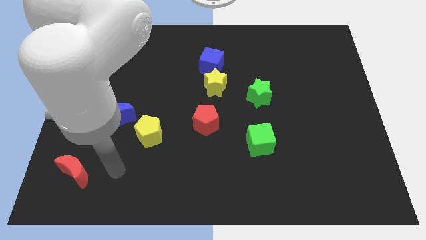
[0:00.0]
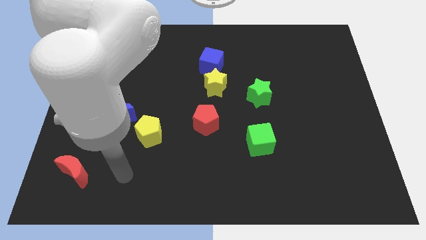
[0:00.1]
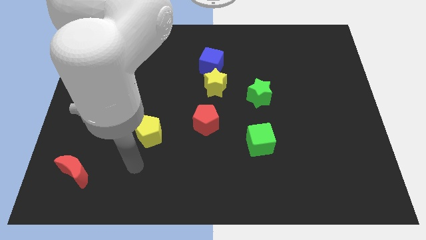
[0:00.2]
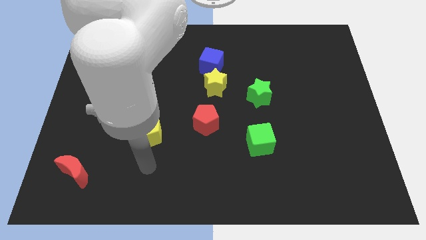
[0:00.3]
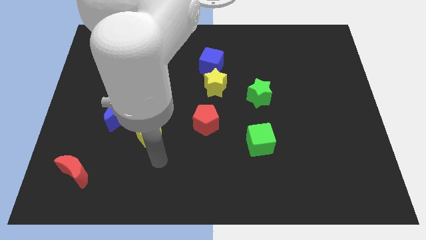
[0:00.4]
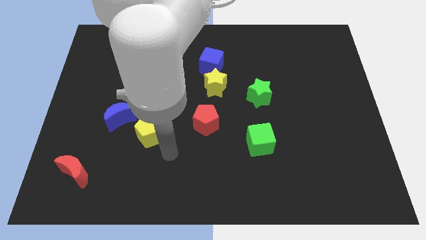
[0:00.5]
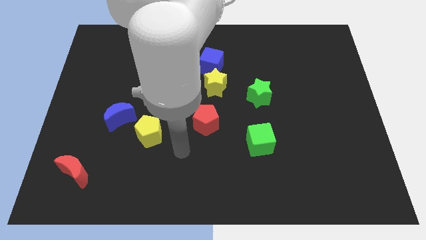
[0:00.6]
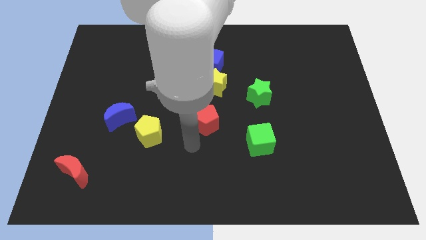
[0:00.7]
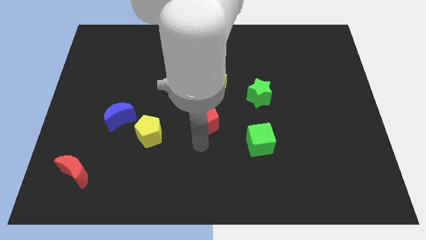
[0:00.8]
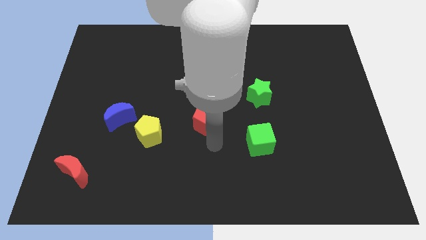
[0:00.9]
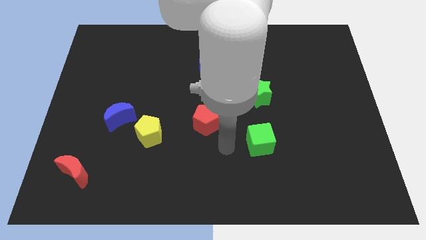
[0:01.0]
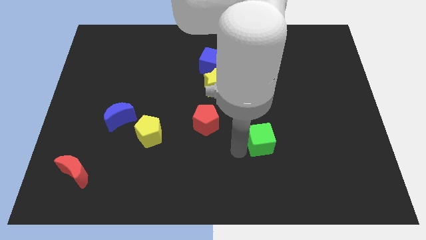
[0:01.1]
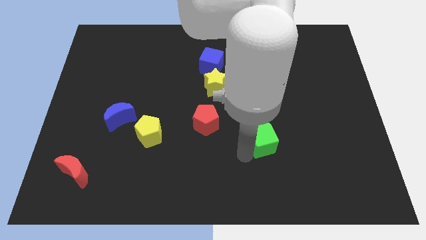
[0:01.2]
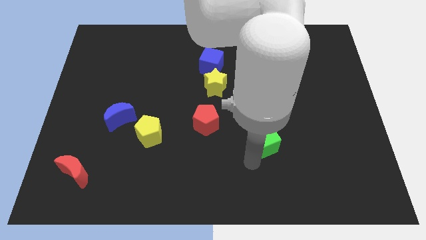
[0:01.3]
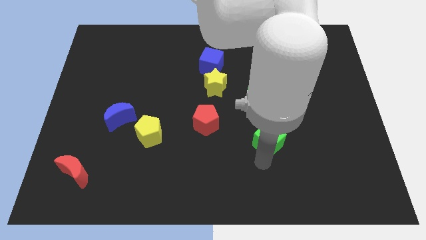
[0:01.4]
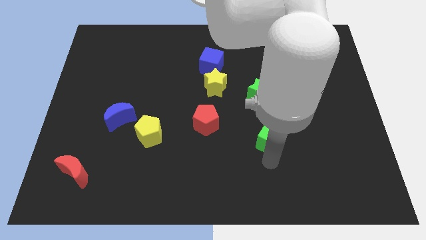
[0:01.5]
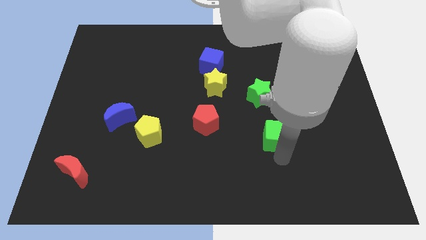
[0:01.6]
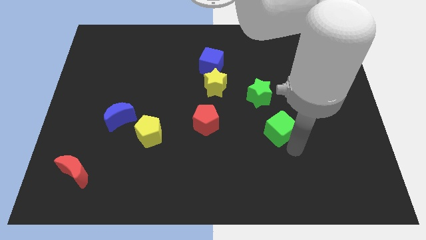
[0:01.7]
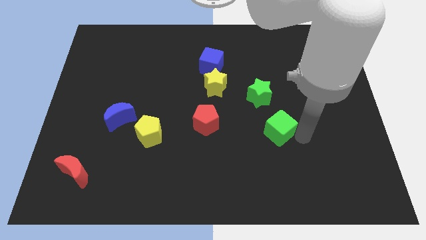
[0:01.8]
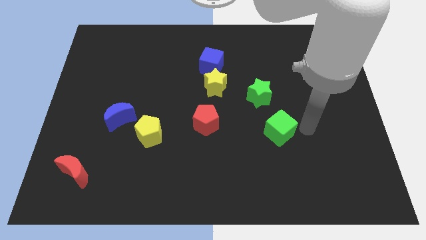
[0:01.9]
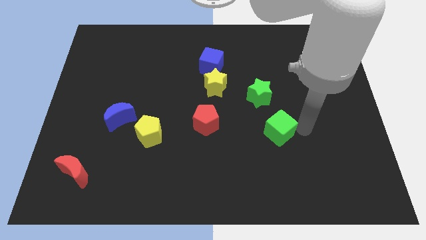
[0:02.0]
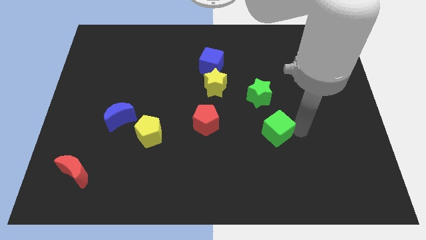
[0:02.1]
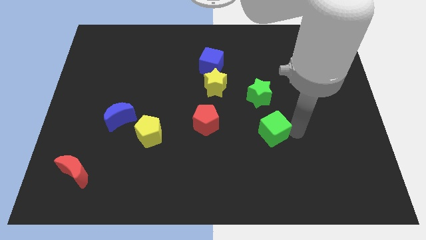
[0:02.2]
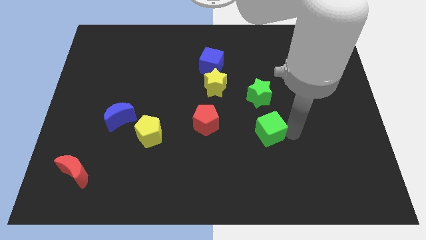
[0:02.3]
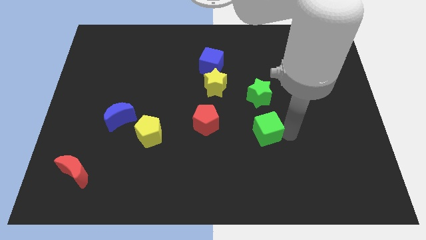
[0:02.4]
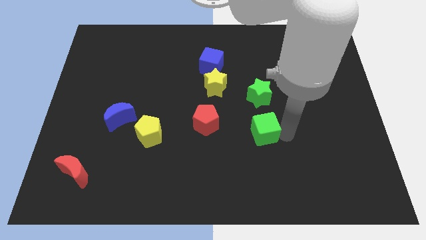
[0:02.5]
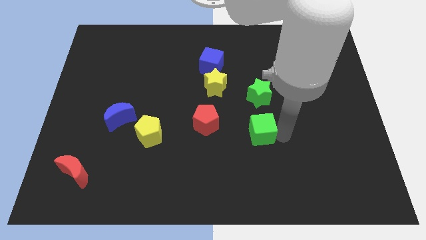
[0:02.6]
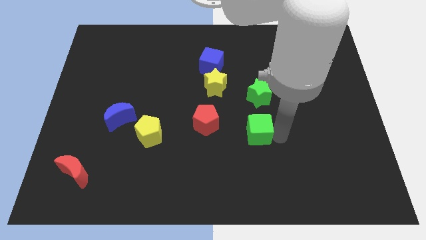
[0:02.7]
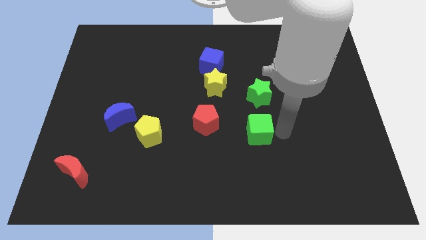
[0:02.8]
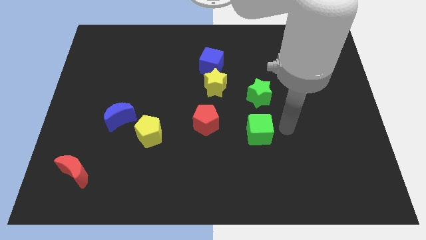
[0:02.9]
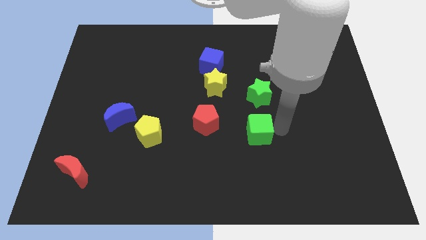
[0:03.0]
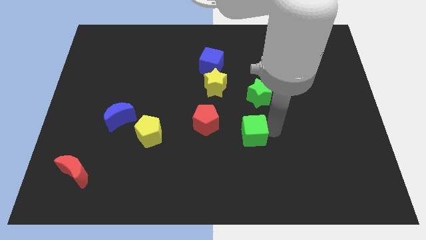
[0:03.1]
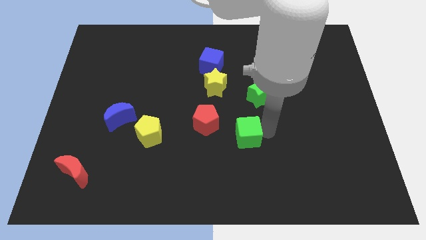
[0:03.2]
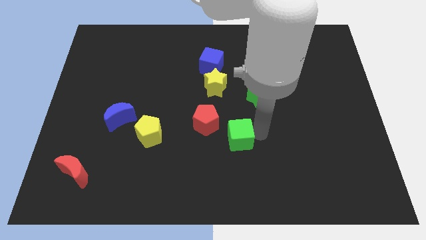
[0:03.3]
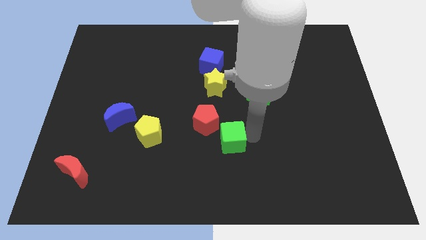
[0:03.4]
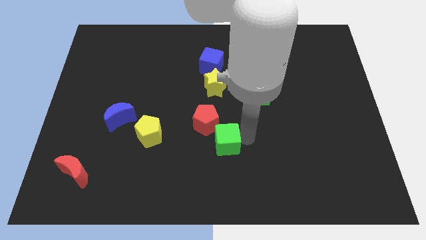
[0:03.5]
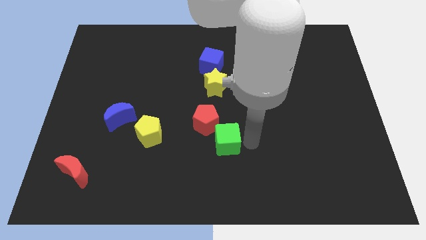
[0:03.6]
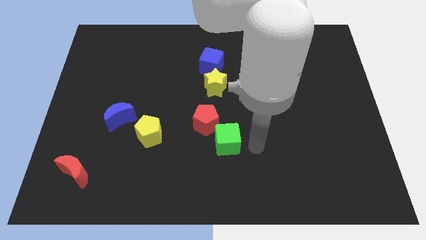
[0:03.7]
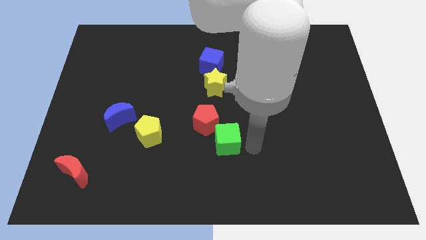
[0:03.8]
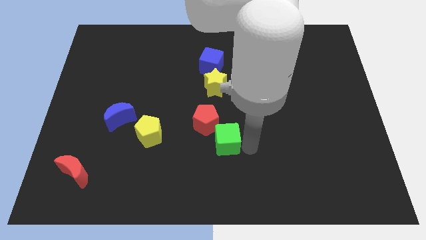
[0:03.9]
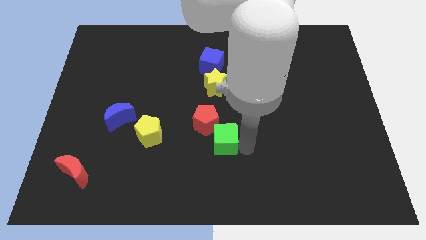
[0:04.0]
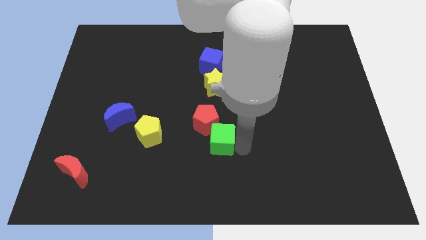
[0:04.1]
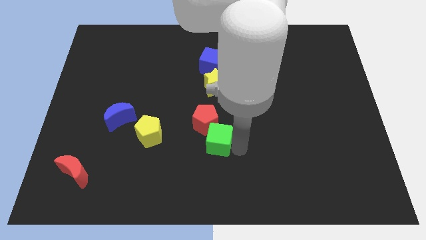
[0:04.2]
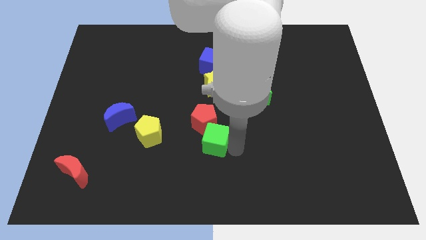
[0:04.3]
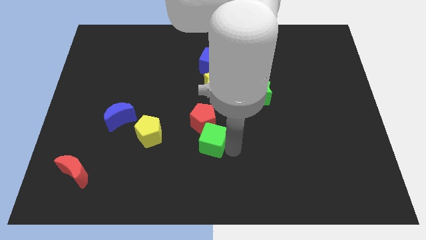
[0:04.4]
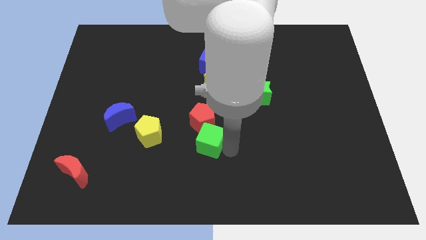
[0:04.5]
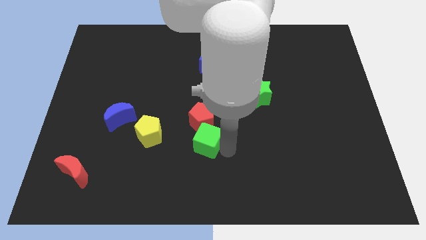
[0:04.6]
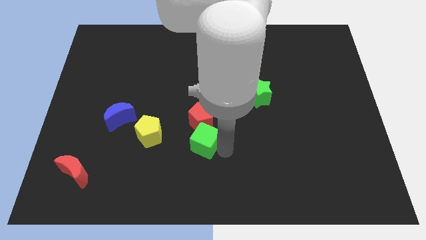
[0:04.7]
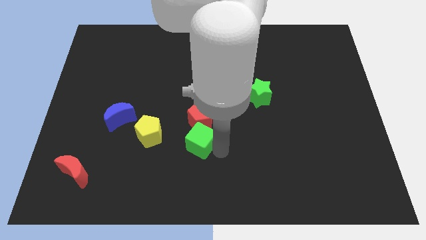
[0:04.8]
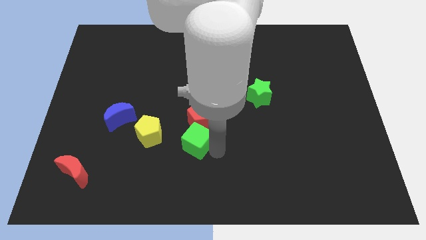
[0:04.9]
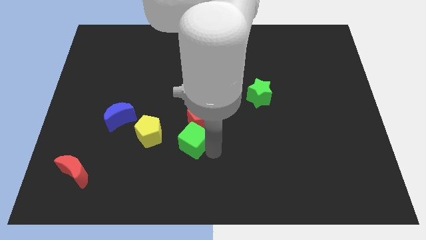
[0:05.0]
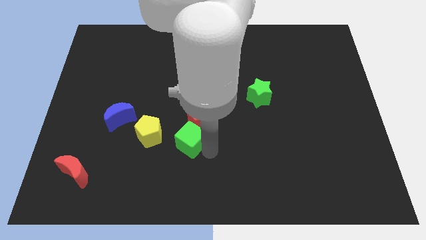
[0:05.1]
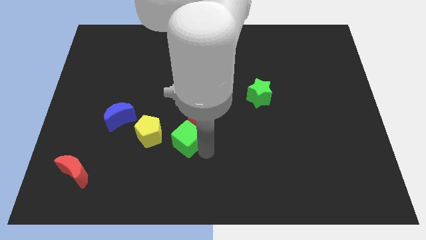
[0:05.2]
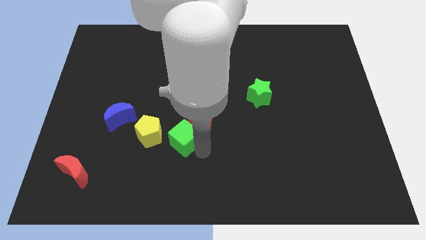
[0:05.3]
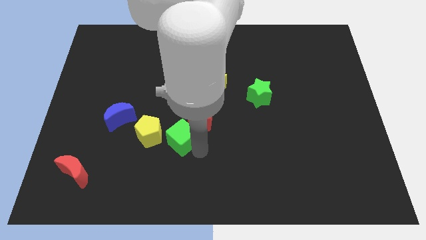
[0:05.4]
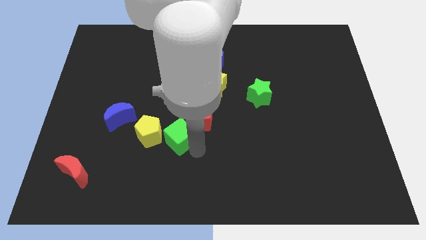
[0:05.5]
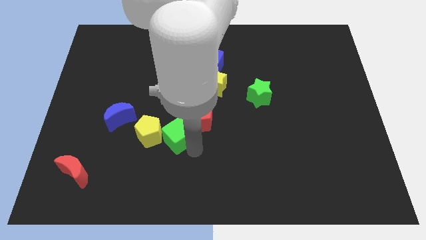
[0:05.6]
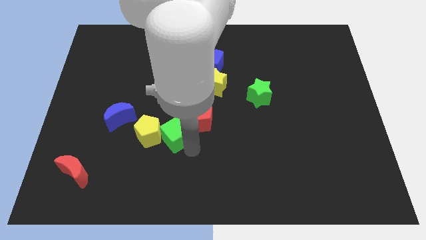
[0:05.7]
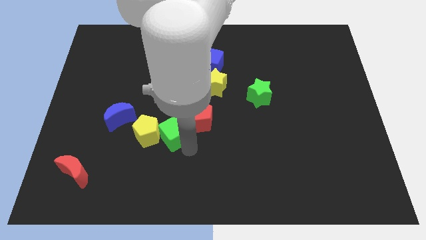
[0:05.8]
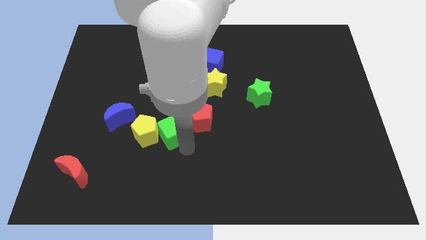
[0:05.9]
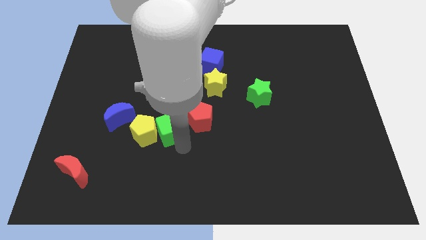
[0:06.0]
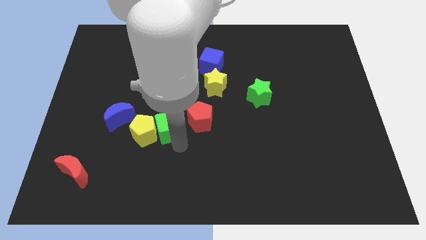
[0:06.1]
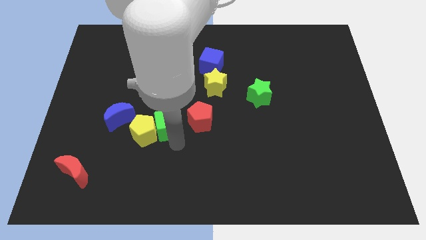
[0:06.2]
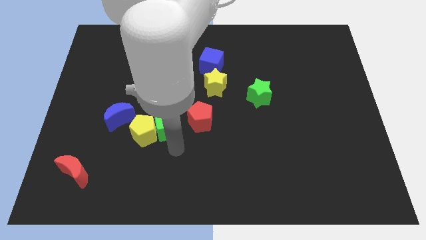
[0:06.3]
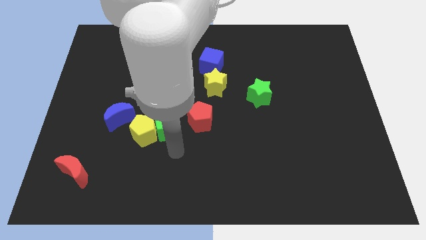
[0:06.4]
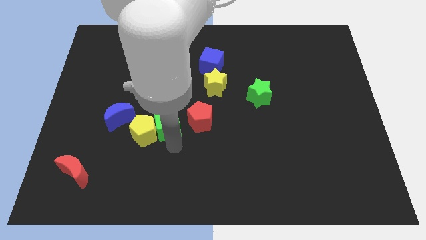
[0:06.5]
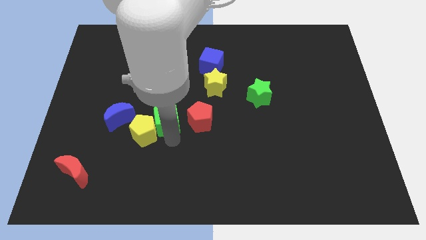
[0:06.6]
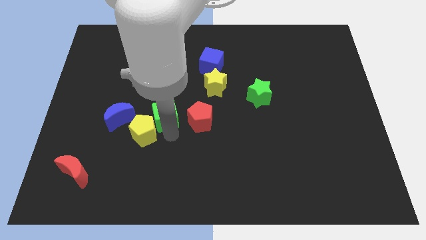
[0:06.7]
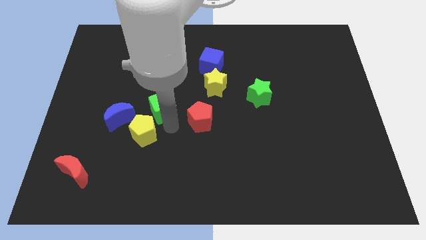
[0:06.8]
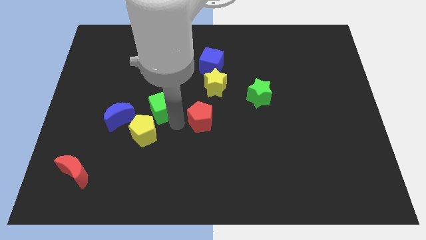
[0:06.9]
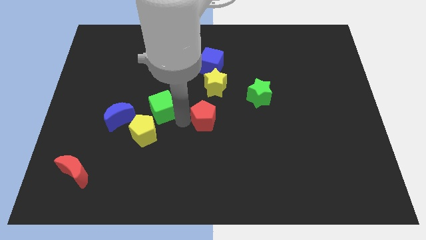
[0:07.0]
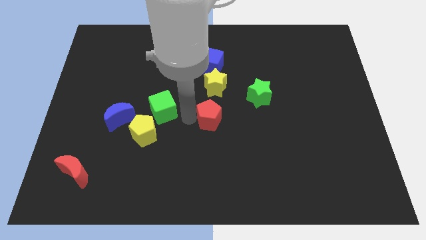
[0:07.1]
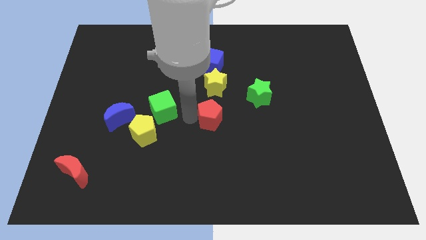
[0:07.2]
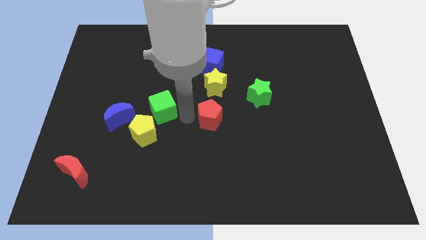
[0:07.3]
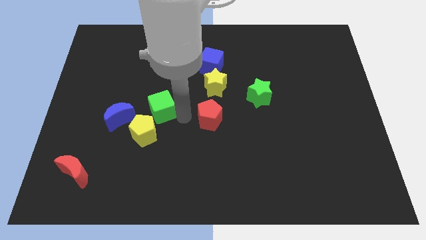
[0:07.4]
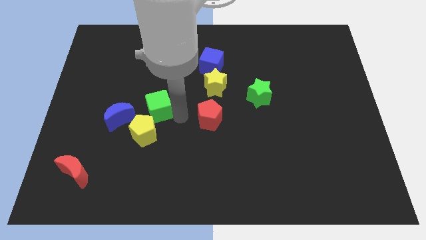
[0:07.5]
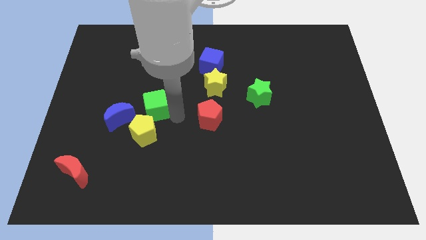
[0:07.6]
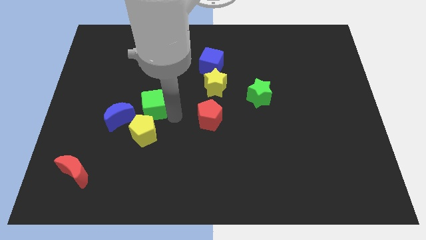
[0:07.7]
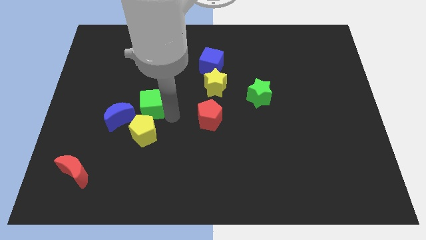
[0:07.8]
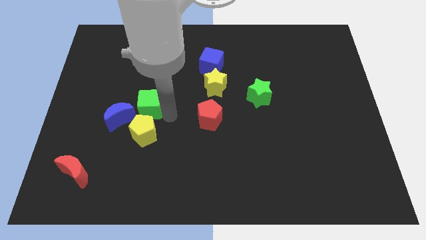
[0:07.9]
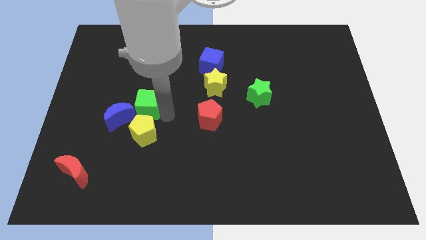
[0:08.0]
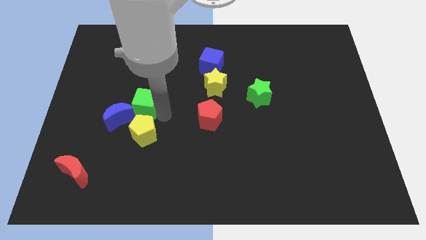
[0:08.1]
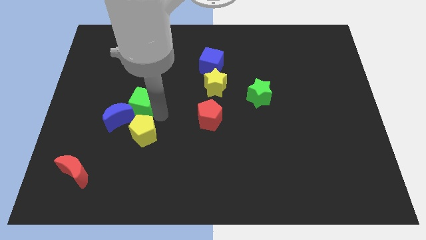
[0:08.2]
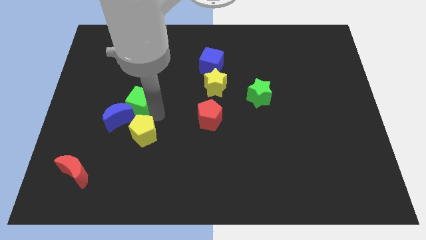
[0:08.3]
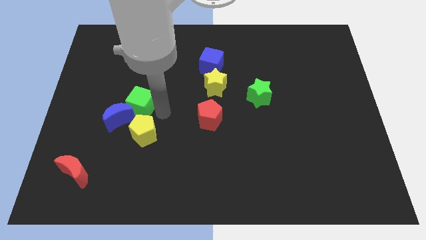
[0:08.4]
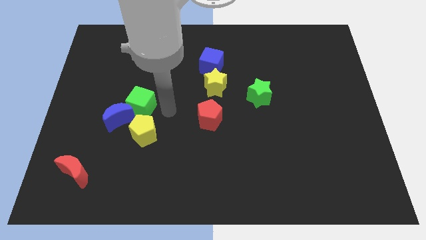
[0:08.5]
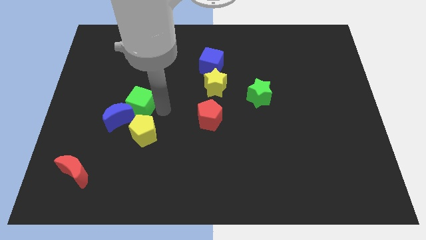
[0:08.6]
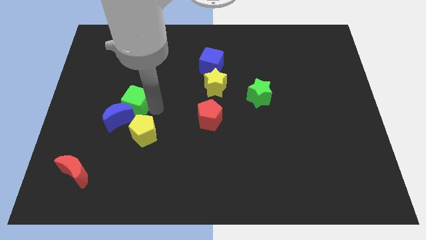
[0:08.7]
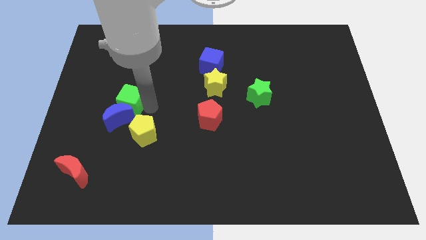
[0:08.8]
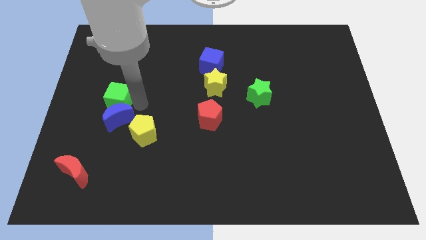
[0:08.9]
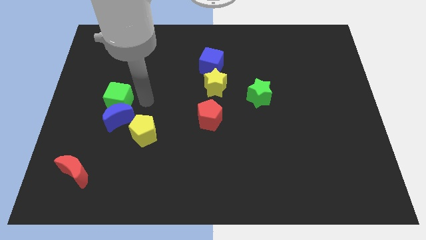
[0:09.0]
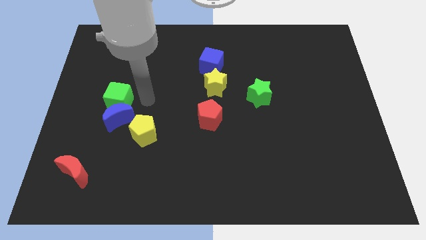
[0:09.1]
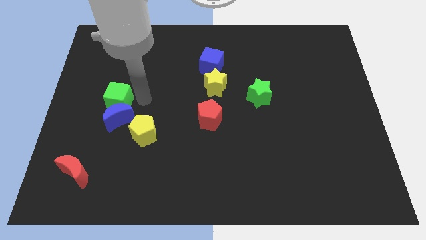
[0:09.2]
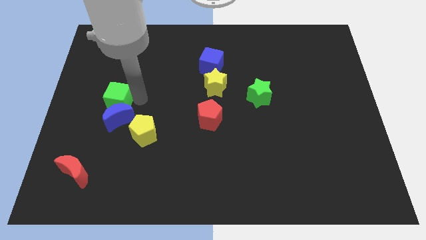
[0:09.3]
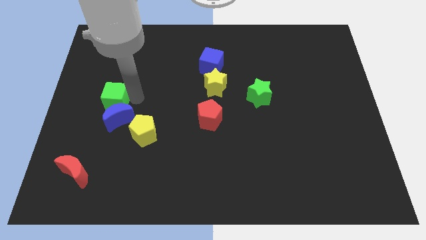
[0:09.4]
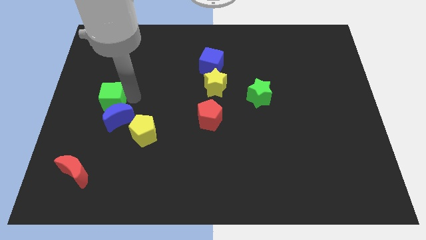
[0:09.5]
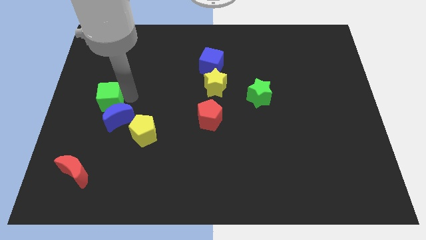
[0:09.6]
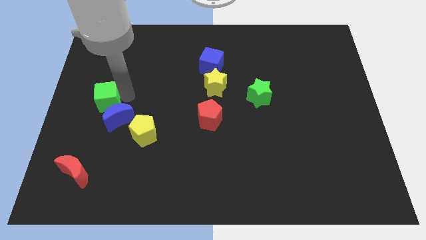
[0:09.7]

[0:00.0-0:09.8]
push the green cube to the center left
